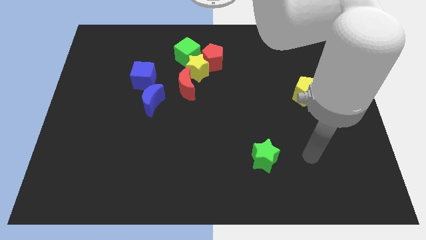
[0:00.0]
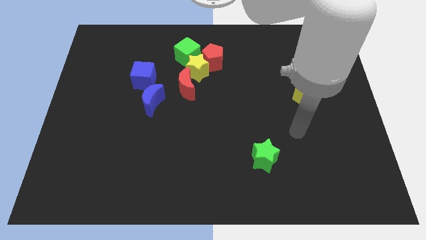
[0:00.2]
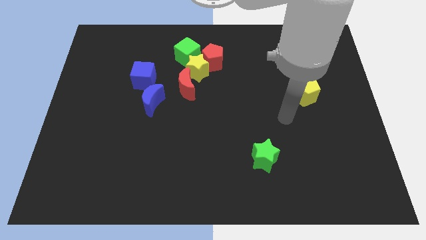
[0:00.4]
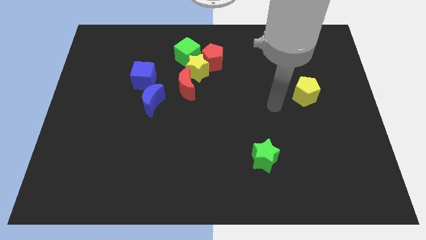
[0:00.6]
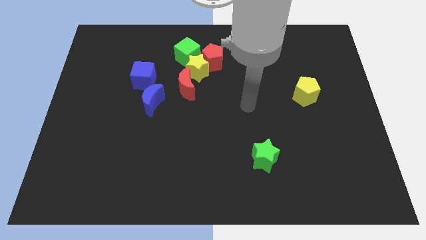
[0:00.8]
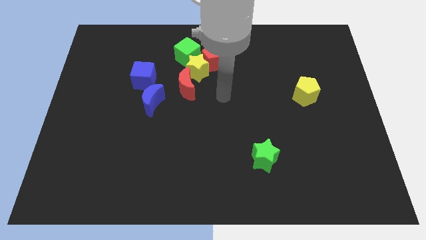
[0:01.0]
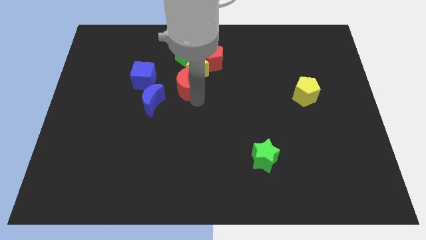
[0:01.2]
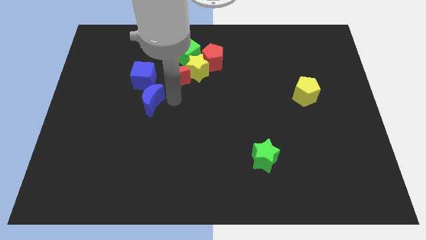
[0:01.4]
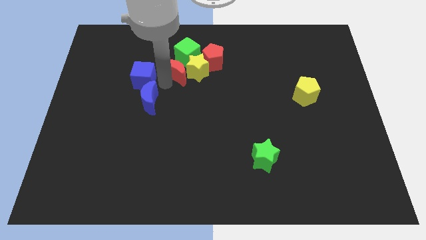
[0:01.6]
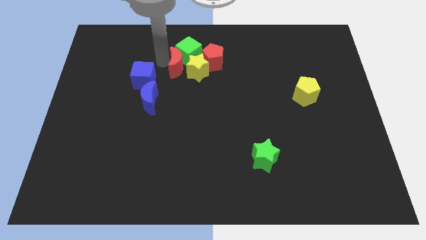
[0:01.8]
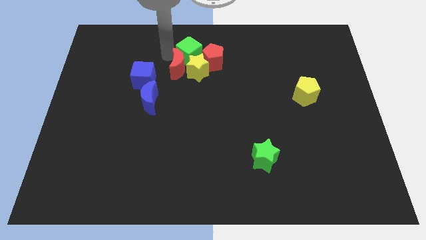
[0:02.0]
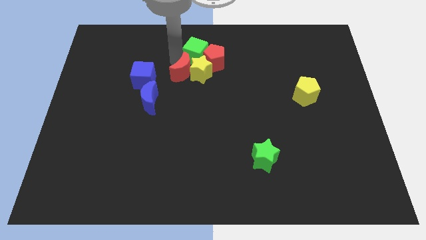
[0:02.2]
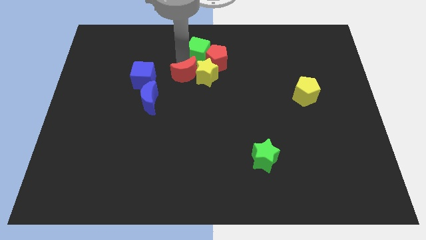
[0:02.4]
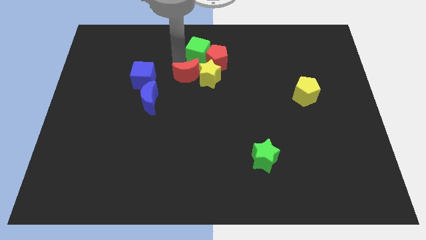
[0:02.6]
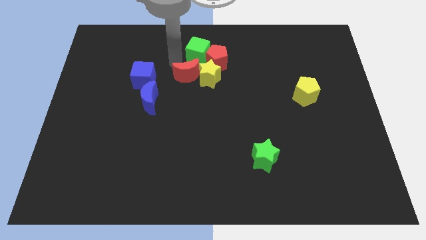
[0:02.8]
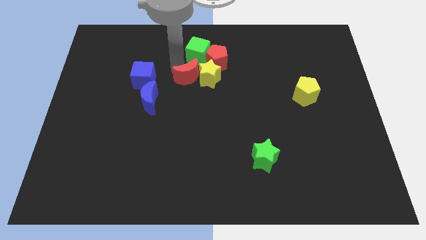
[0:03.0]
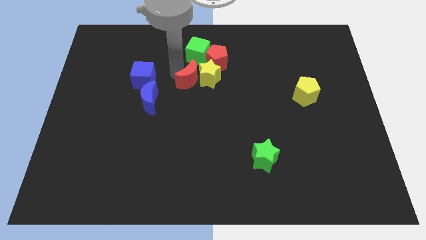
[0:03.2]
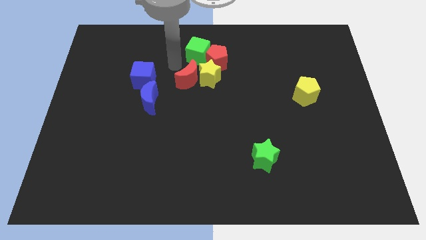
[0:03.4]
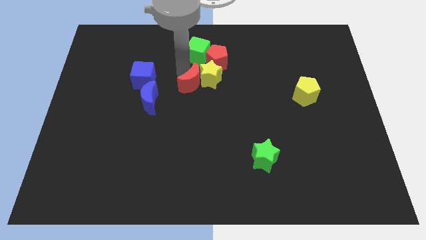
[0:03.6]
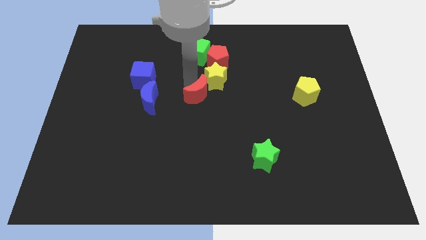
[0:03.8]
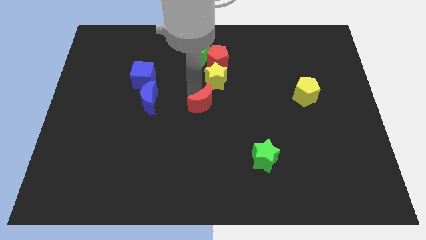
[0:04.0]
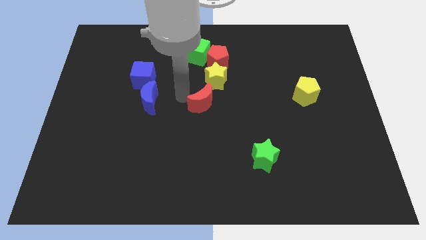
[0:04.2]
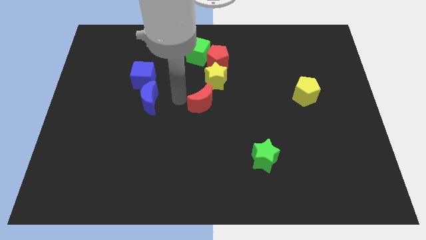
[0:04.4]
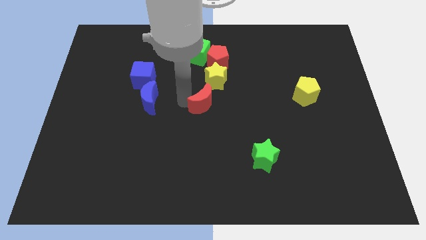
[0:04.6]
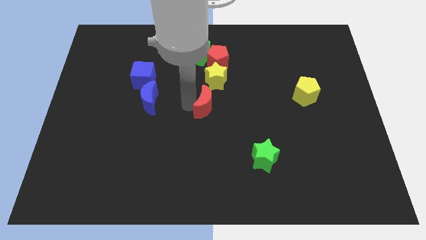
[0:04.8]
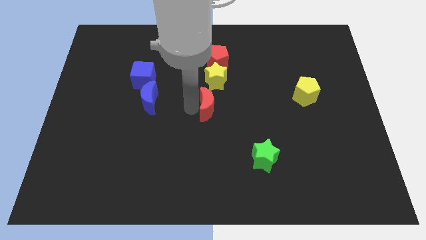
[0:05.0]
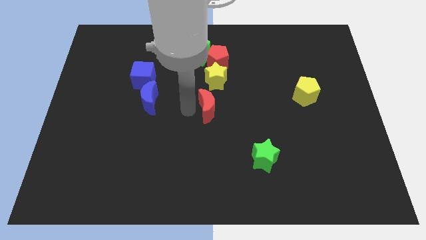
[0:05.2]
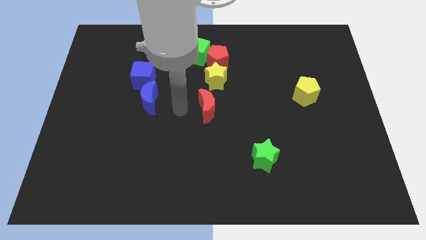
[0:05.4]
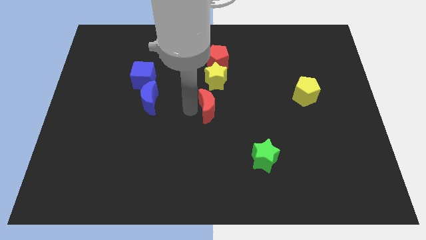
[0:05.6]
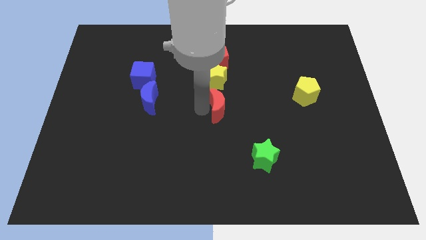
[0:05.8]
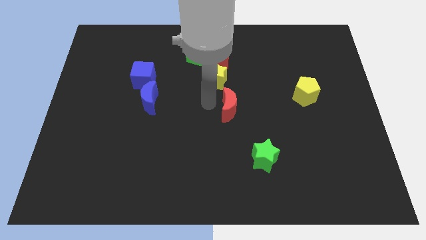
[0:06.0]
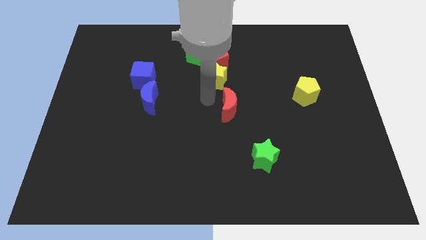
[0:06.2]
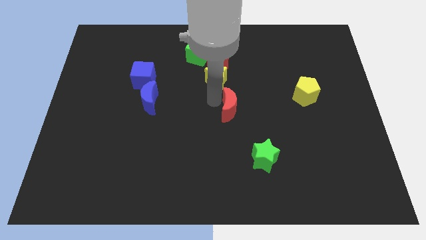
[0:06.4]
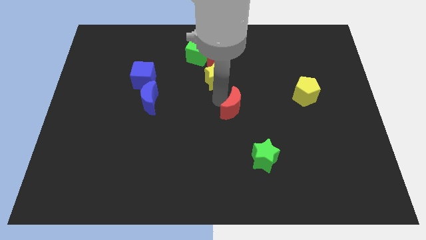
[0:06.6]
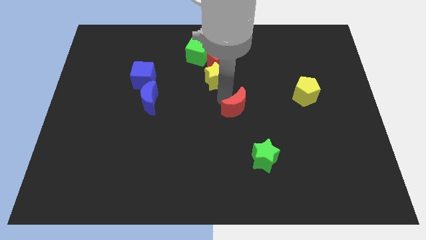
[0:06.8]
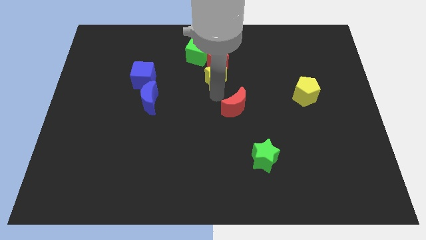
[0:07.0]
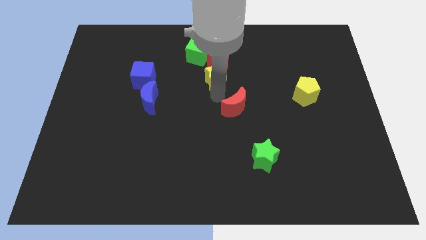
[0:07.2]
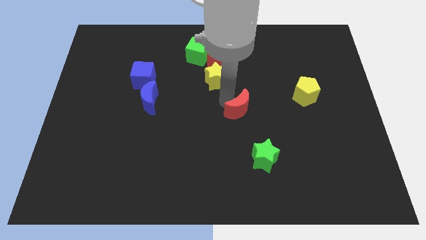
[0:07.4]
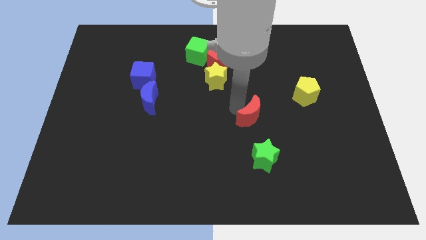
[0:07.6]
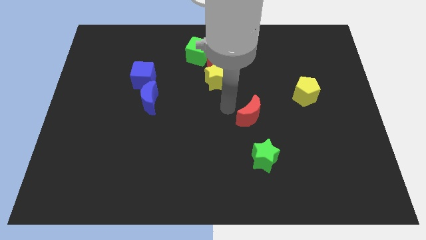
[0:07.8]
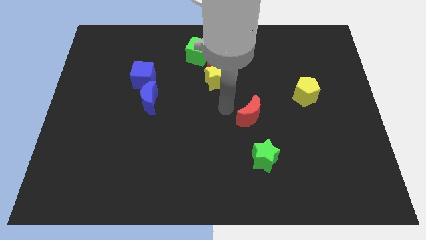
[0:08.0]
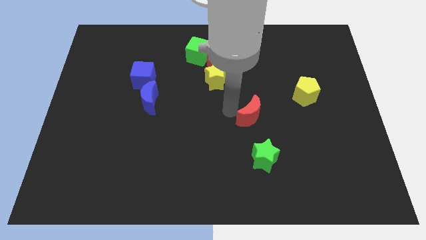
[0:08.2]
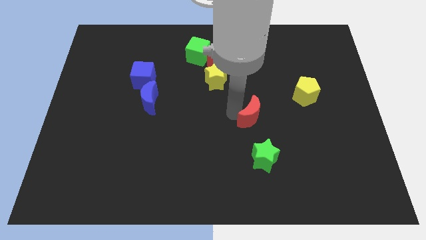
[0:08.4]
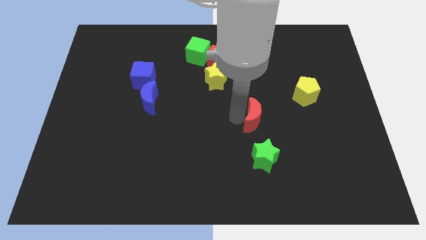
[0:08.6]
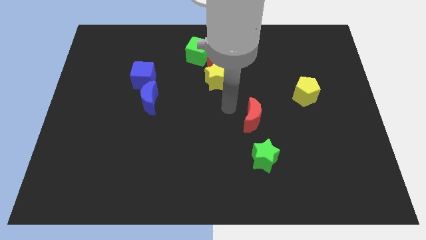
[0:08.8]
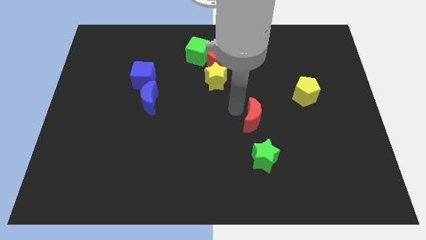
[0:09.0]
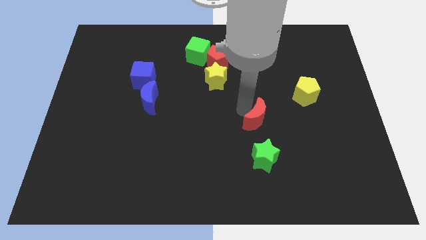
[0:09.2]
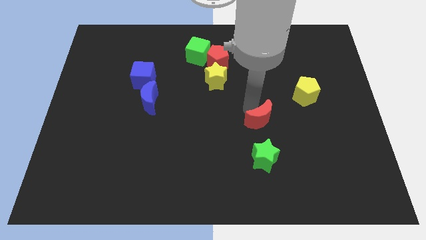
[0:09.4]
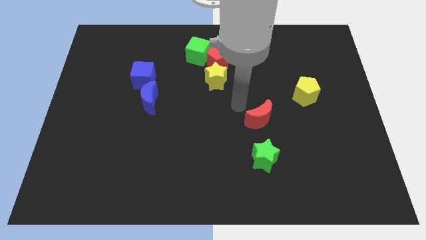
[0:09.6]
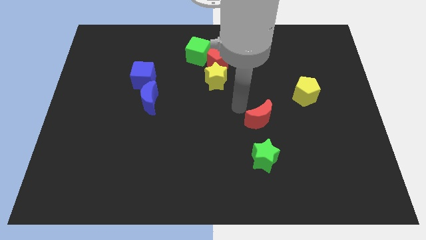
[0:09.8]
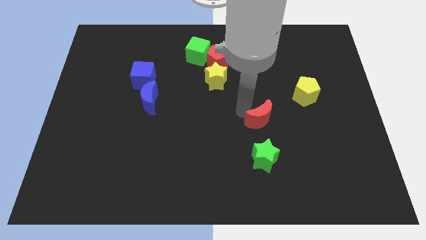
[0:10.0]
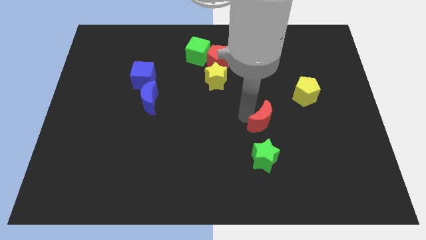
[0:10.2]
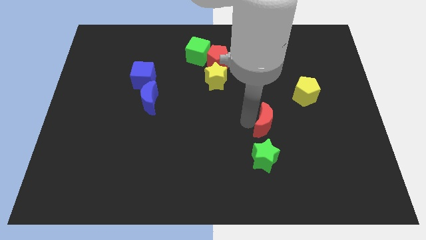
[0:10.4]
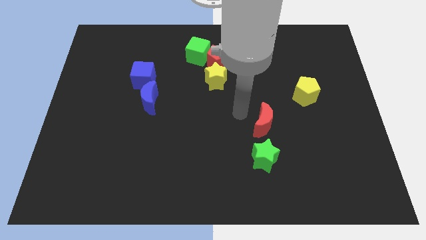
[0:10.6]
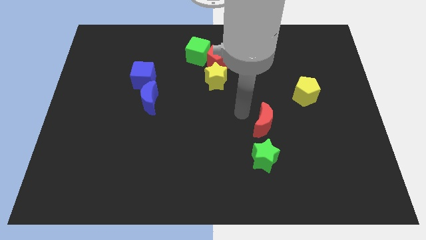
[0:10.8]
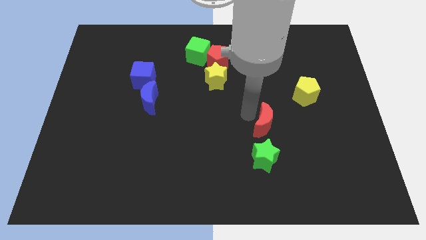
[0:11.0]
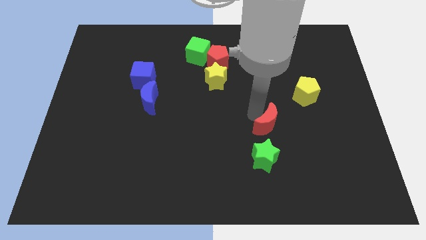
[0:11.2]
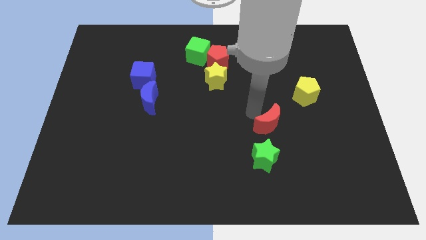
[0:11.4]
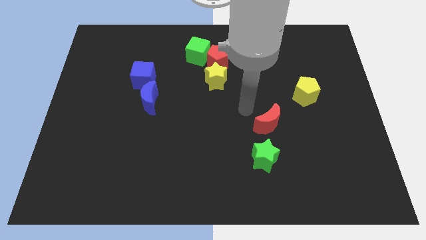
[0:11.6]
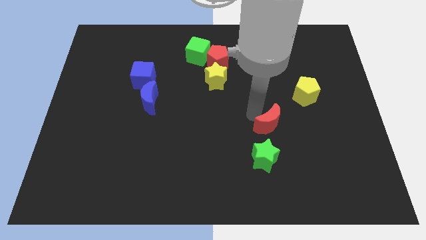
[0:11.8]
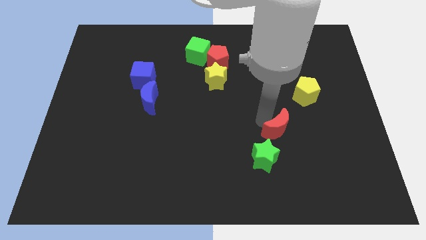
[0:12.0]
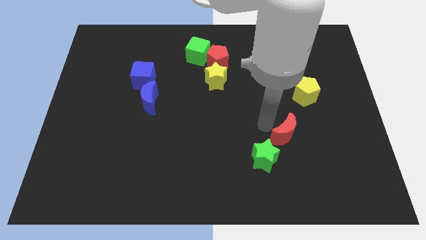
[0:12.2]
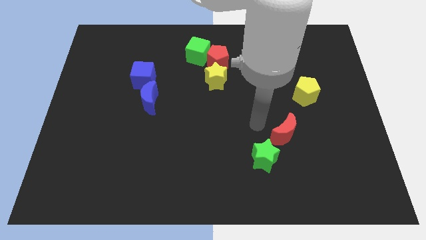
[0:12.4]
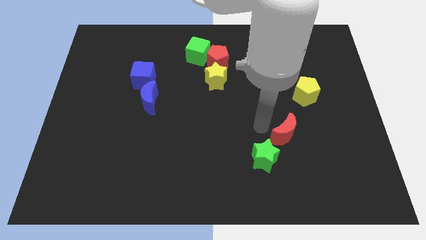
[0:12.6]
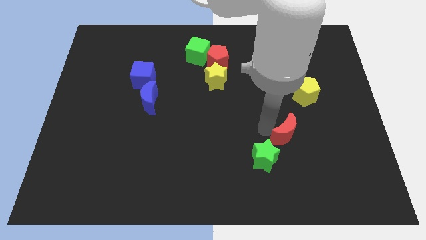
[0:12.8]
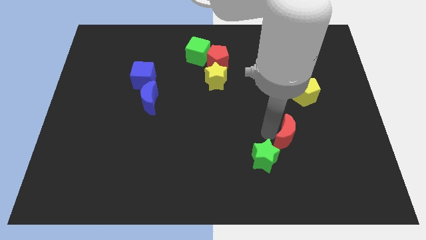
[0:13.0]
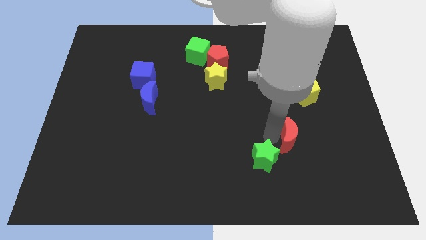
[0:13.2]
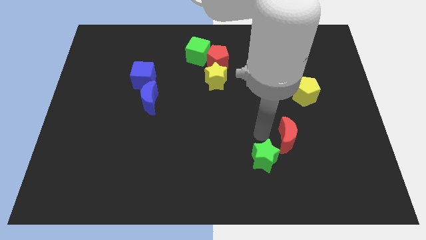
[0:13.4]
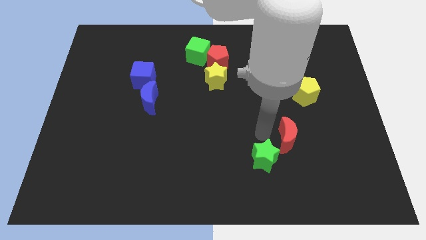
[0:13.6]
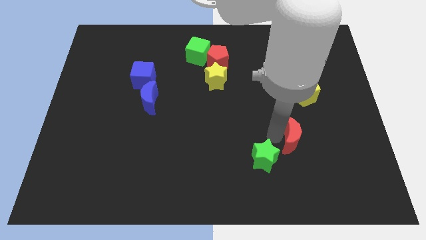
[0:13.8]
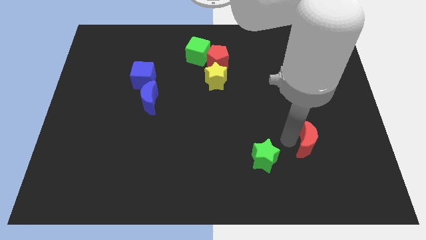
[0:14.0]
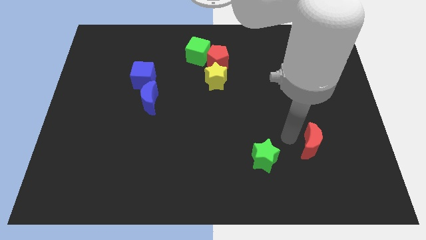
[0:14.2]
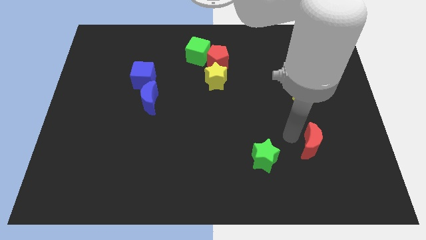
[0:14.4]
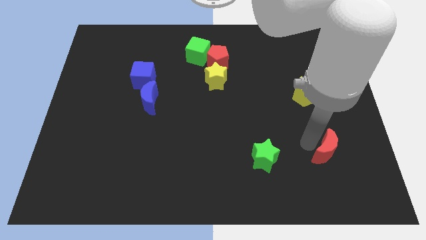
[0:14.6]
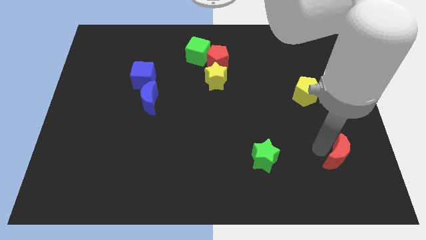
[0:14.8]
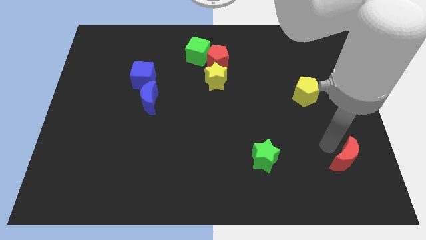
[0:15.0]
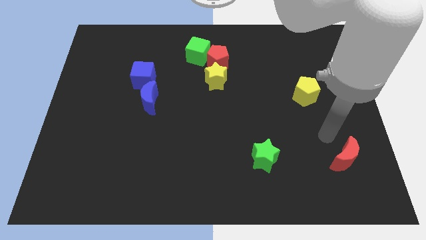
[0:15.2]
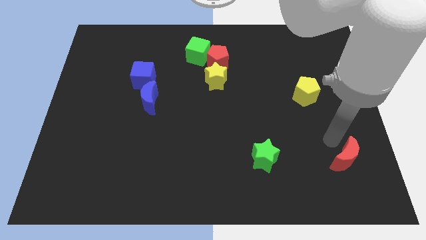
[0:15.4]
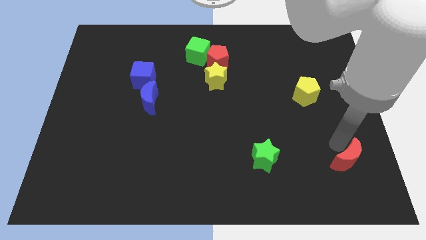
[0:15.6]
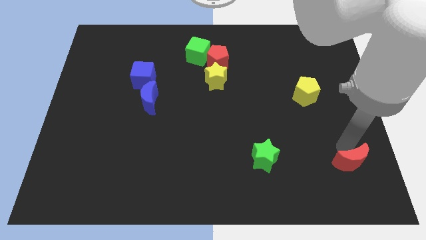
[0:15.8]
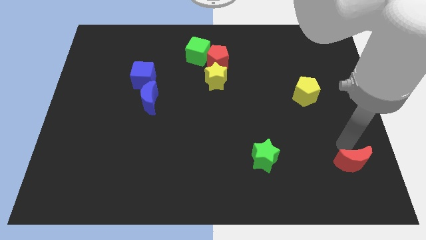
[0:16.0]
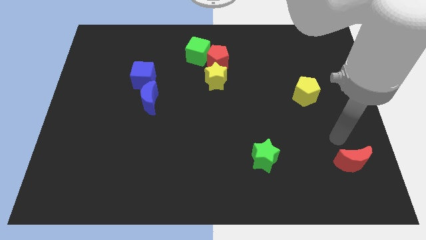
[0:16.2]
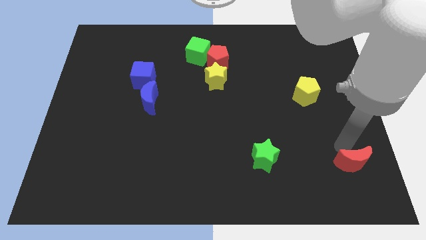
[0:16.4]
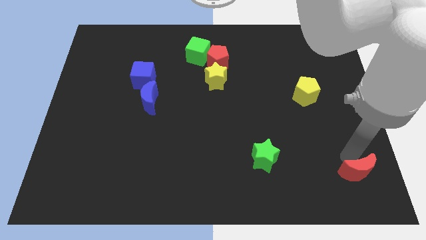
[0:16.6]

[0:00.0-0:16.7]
slide the red moon to the bottom right
